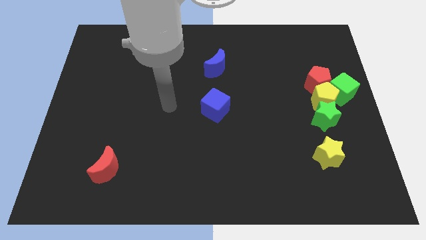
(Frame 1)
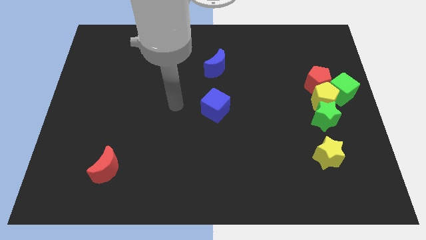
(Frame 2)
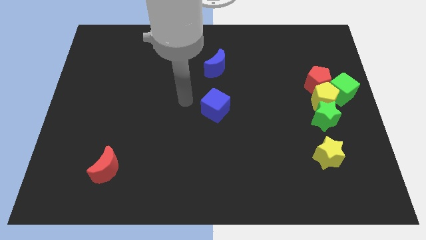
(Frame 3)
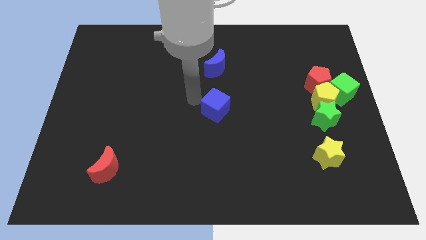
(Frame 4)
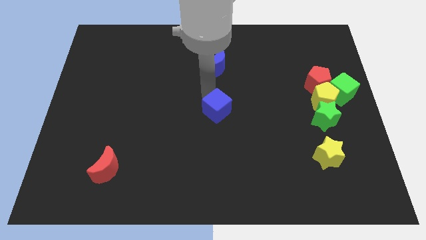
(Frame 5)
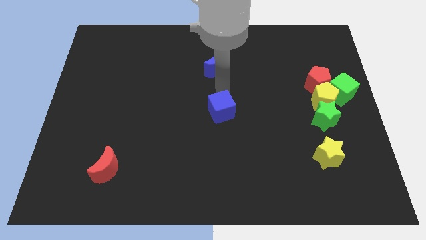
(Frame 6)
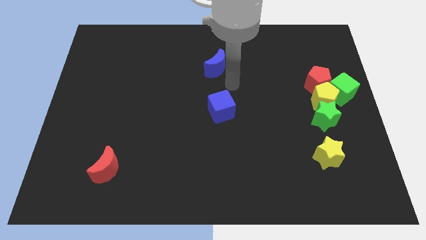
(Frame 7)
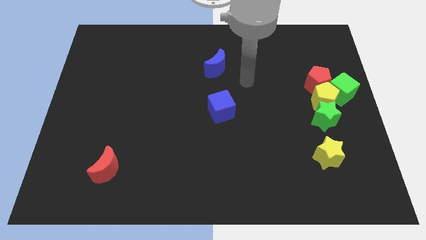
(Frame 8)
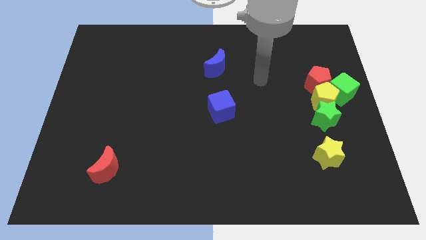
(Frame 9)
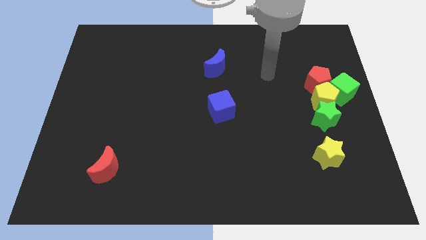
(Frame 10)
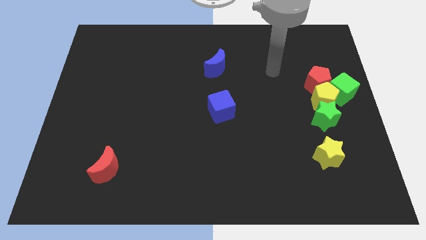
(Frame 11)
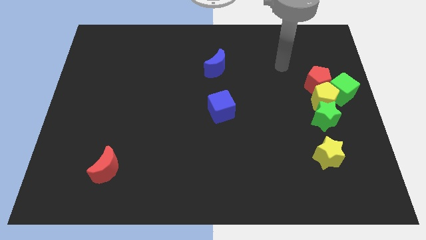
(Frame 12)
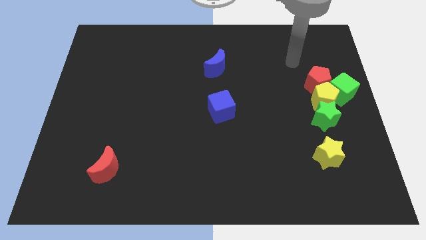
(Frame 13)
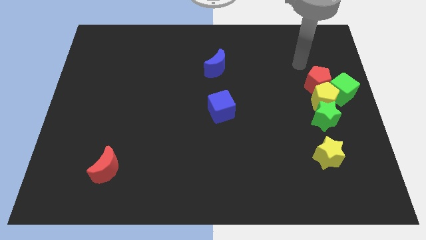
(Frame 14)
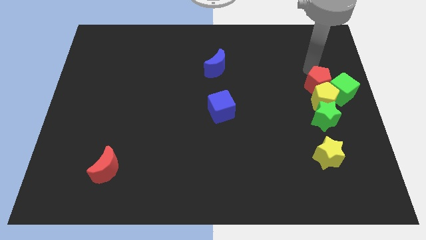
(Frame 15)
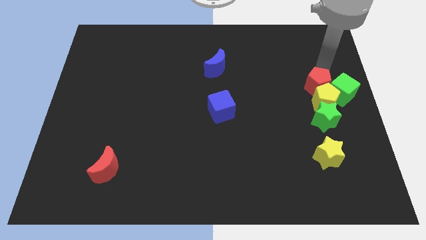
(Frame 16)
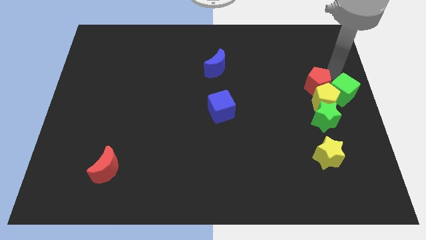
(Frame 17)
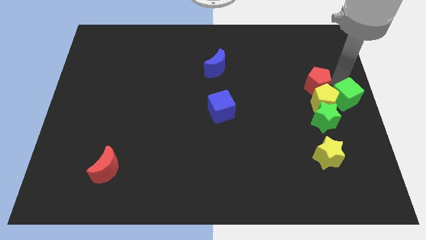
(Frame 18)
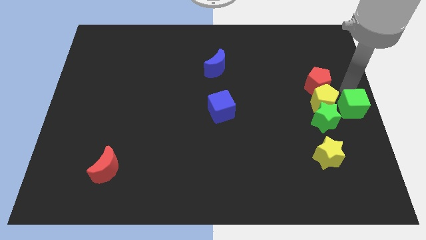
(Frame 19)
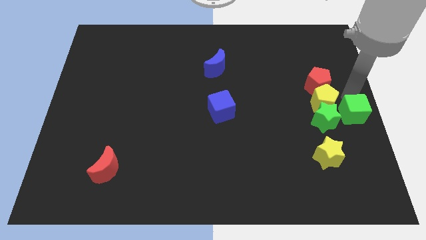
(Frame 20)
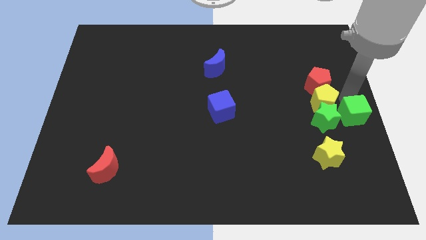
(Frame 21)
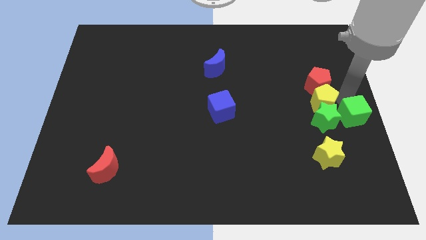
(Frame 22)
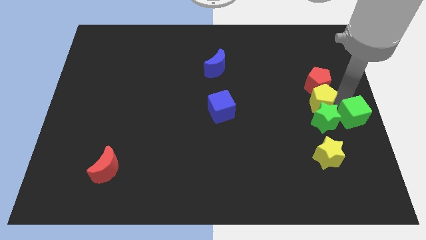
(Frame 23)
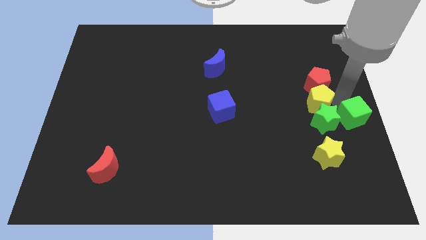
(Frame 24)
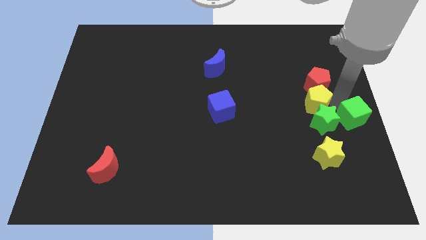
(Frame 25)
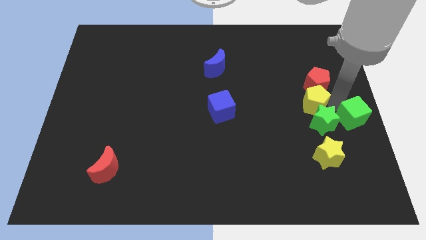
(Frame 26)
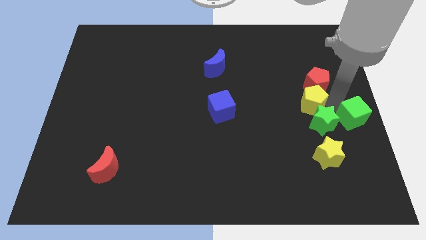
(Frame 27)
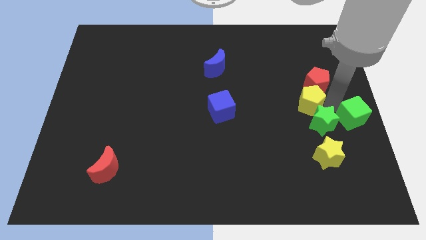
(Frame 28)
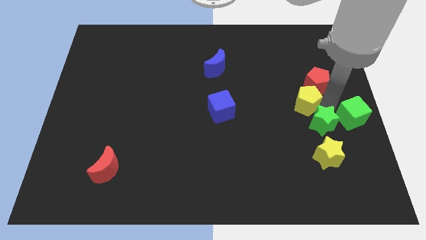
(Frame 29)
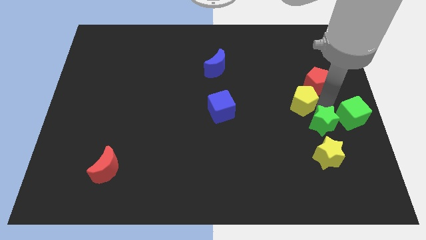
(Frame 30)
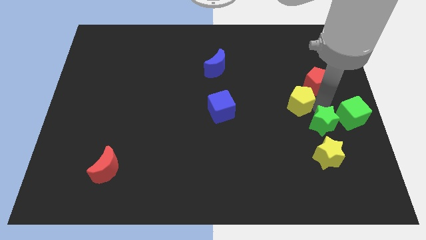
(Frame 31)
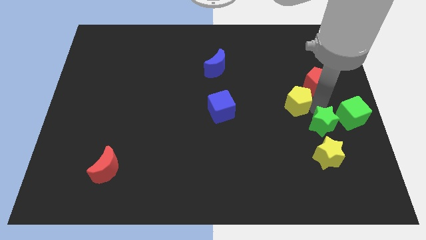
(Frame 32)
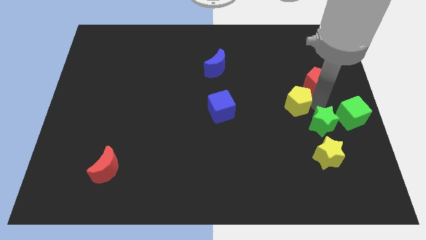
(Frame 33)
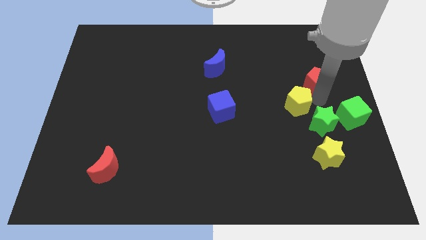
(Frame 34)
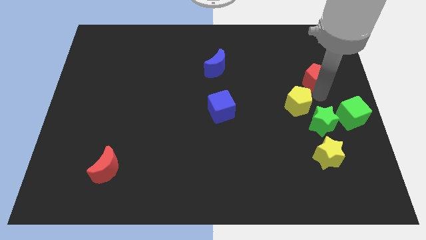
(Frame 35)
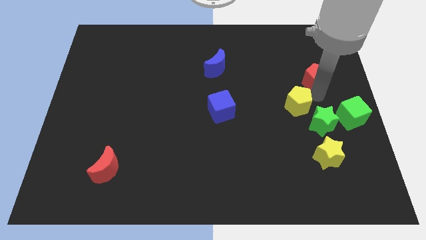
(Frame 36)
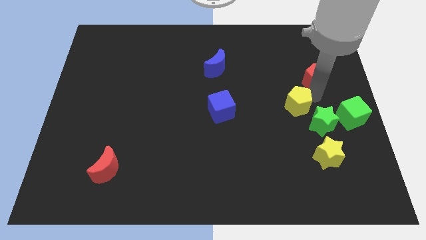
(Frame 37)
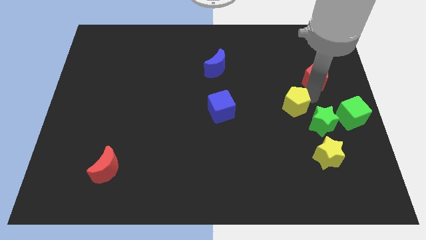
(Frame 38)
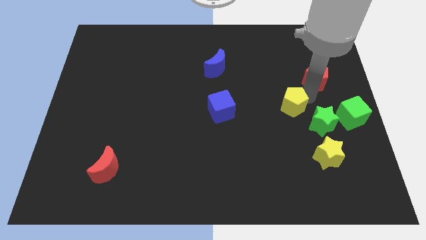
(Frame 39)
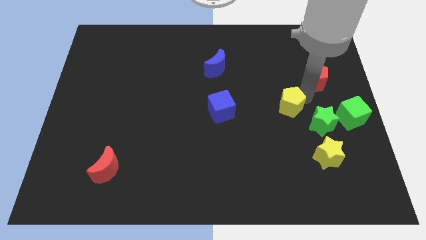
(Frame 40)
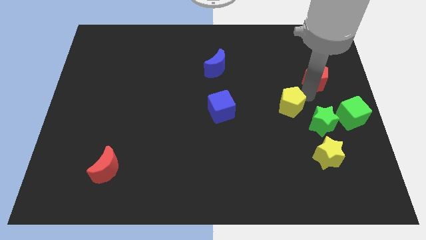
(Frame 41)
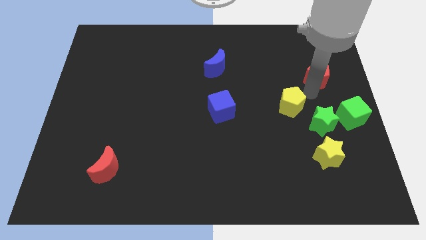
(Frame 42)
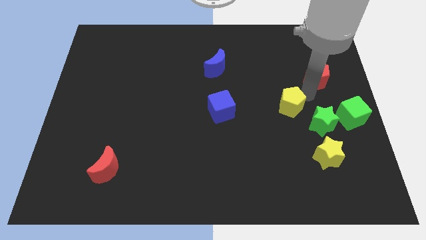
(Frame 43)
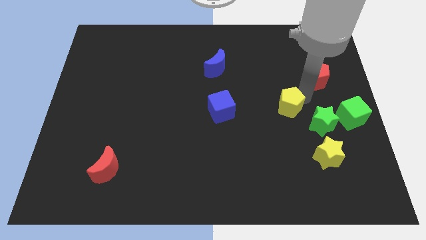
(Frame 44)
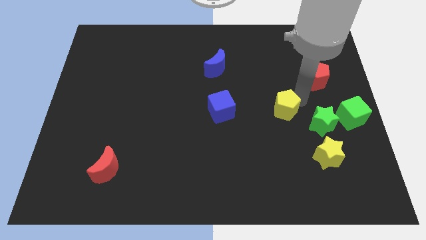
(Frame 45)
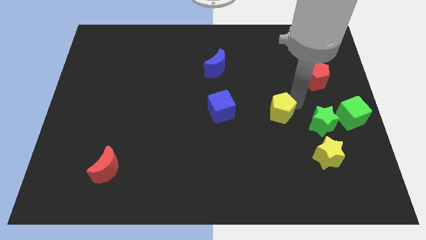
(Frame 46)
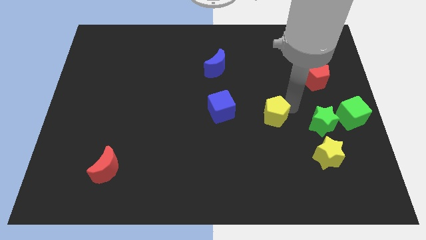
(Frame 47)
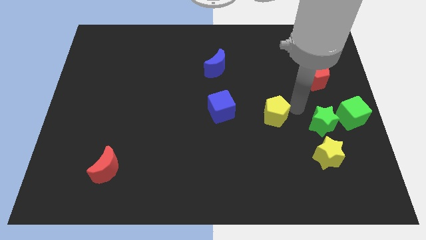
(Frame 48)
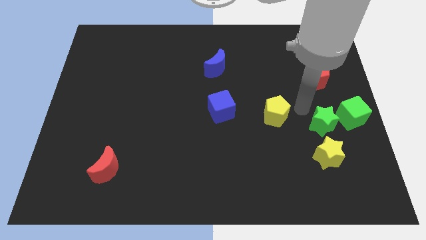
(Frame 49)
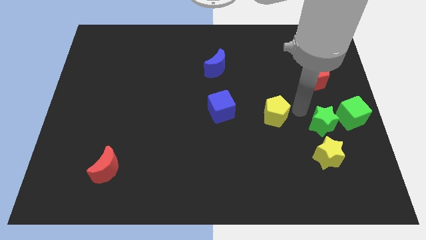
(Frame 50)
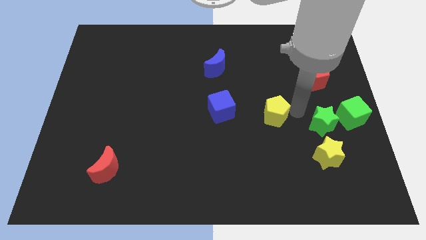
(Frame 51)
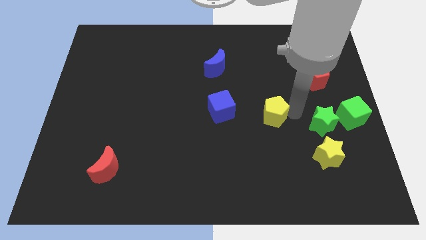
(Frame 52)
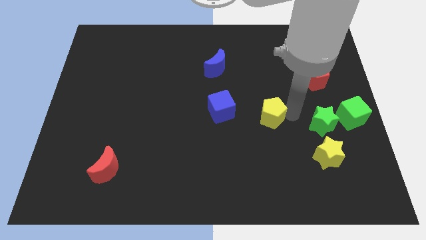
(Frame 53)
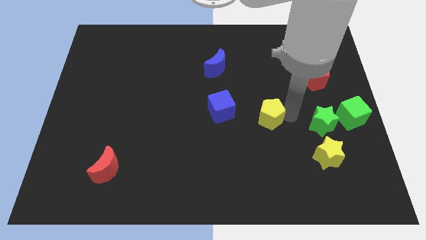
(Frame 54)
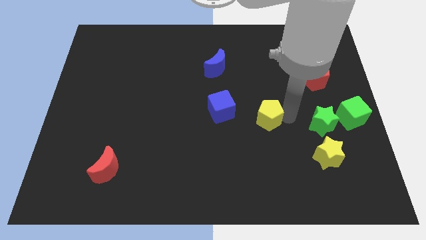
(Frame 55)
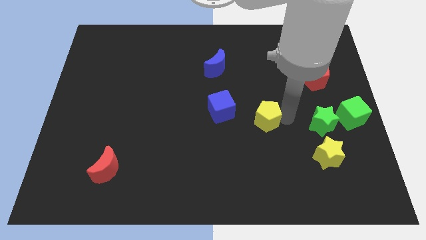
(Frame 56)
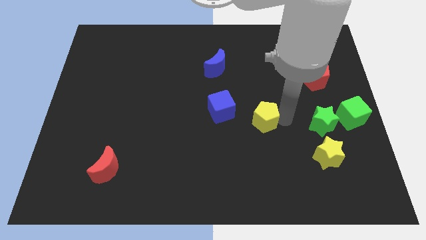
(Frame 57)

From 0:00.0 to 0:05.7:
move the yellow pentagon to the bottom right side of the blue cube

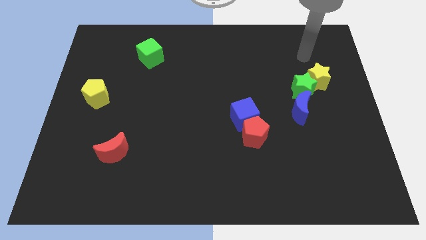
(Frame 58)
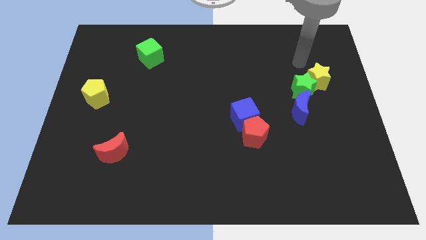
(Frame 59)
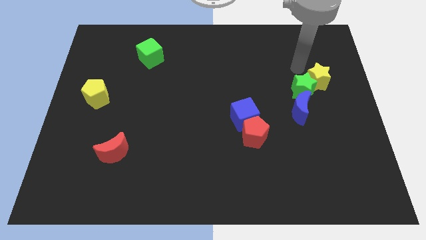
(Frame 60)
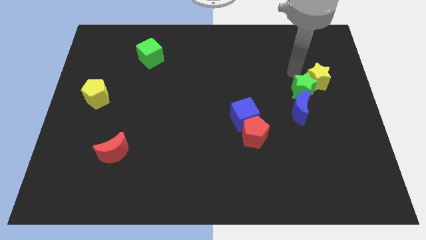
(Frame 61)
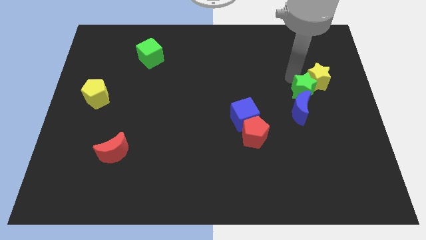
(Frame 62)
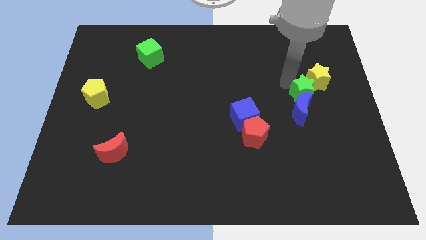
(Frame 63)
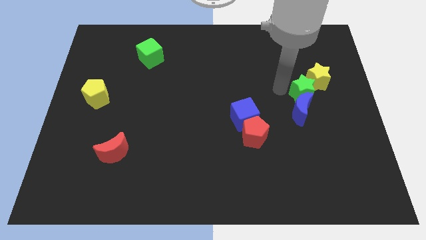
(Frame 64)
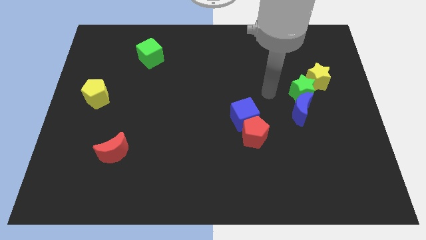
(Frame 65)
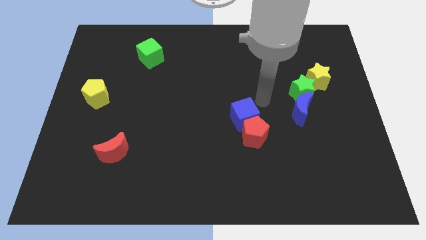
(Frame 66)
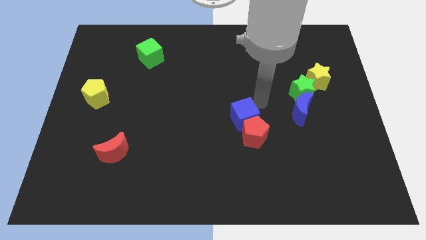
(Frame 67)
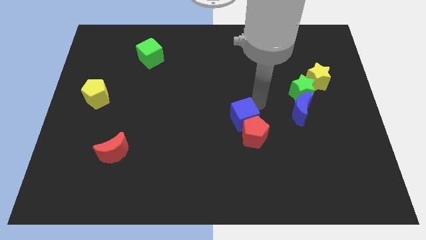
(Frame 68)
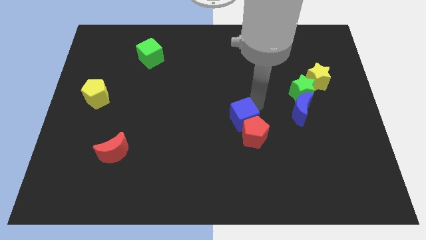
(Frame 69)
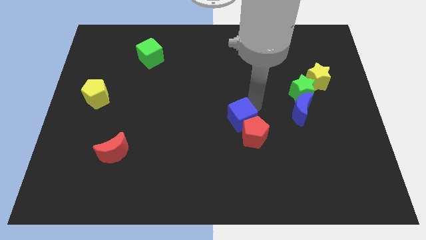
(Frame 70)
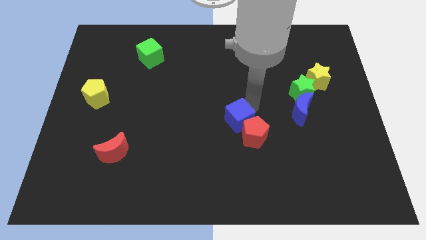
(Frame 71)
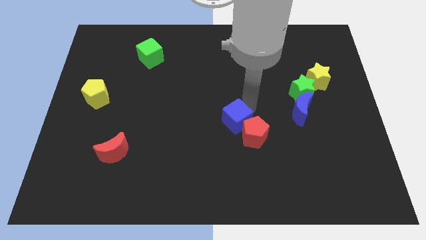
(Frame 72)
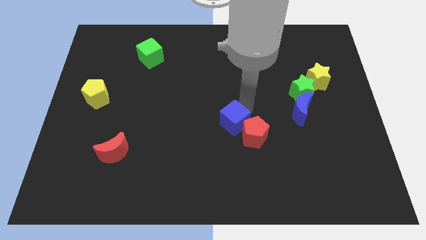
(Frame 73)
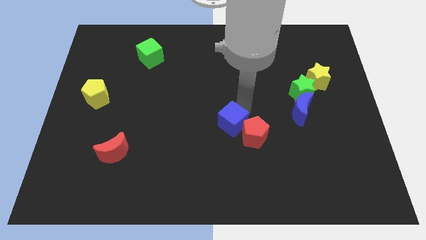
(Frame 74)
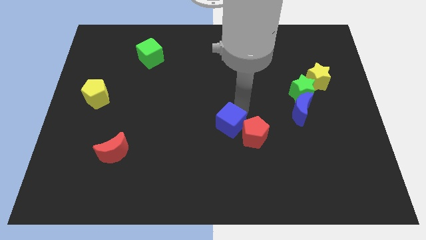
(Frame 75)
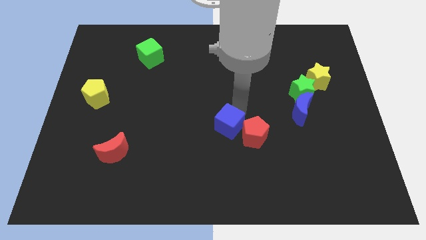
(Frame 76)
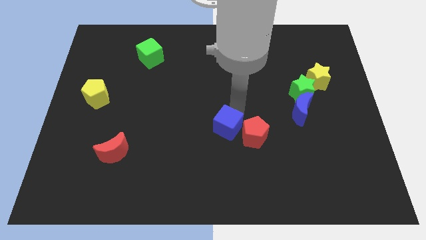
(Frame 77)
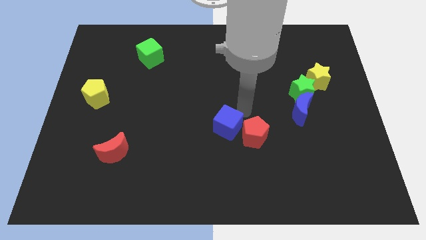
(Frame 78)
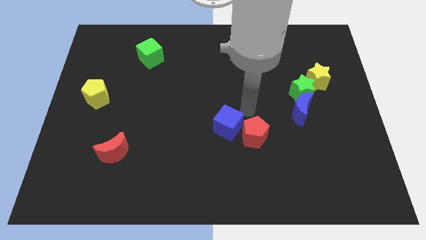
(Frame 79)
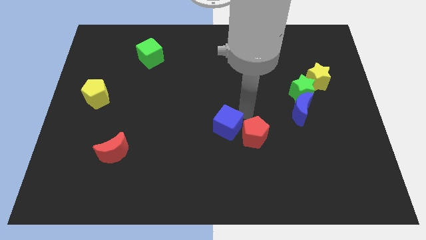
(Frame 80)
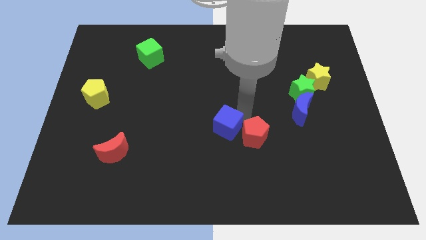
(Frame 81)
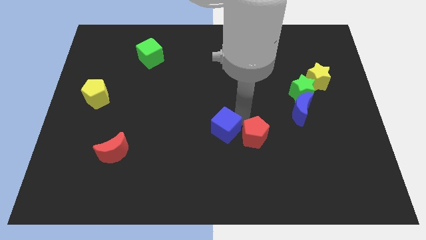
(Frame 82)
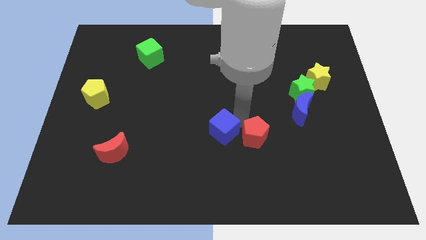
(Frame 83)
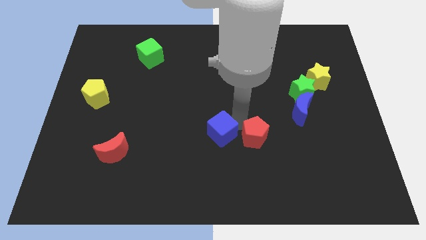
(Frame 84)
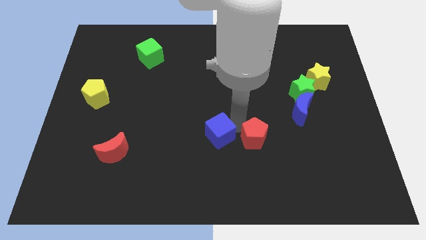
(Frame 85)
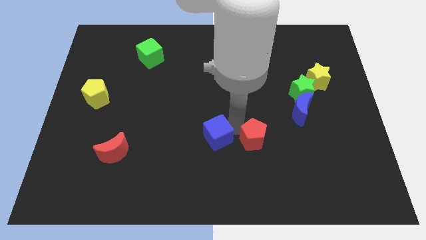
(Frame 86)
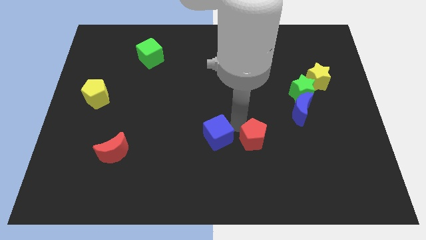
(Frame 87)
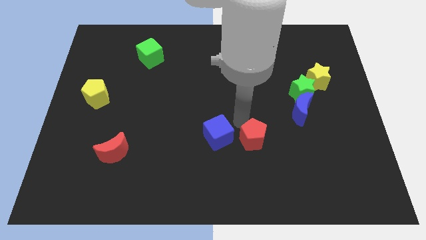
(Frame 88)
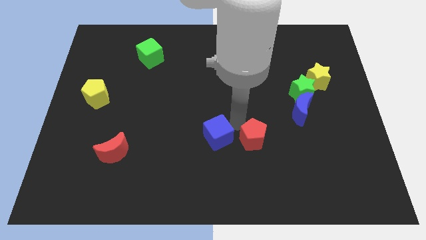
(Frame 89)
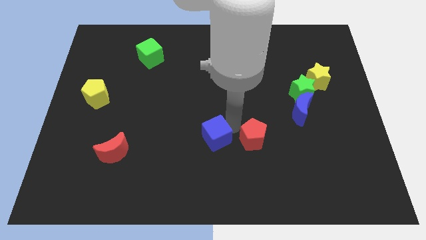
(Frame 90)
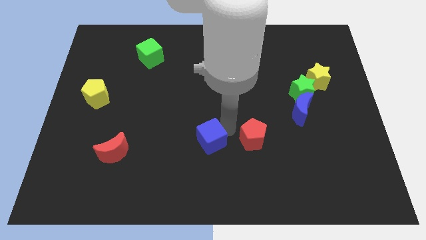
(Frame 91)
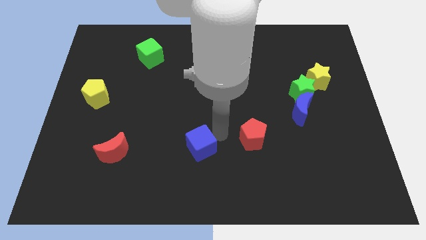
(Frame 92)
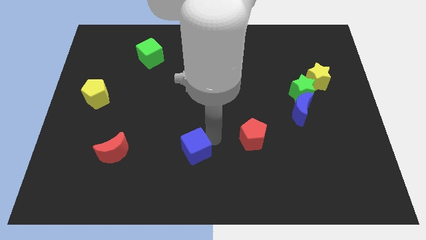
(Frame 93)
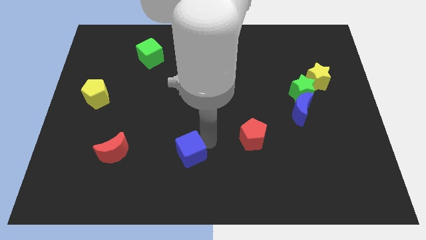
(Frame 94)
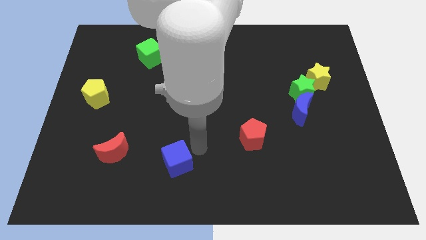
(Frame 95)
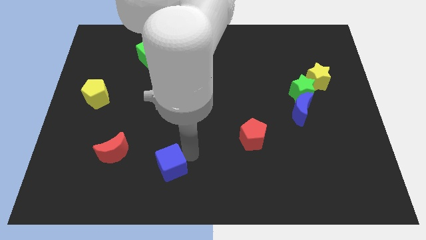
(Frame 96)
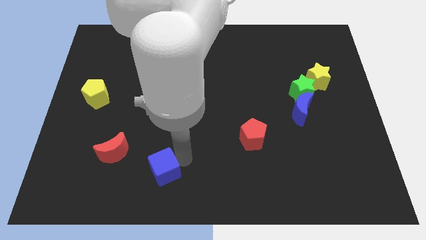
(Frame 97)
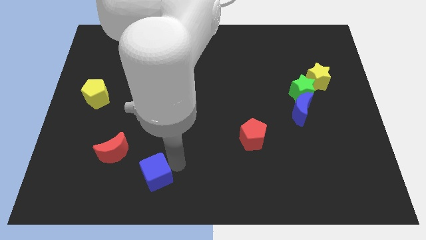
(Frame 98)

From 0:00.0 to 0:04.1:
put the blue cube to the bottom right of the red moon
